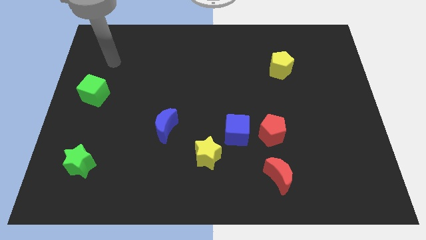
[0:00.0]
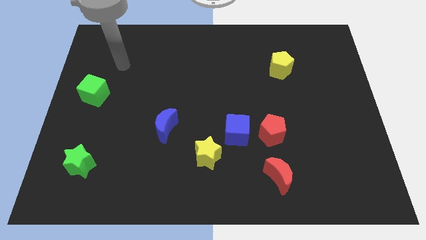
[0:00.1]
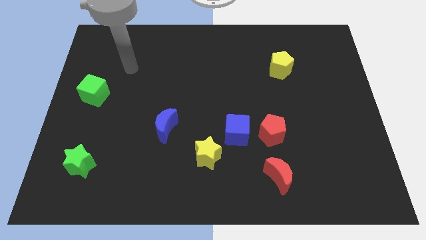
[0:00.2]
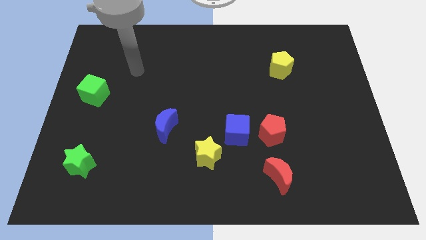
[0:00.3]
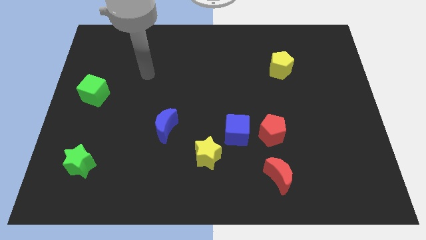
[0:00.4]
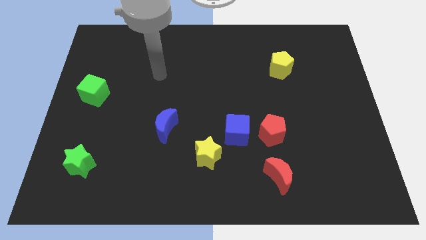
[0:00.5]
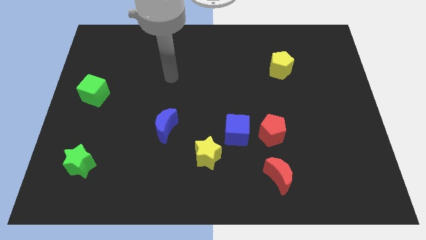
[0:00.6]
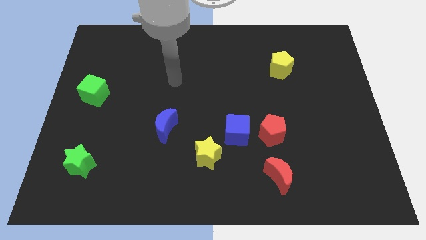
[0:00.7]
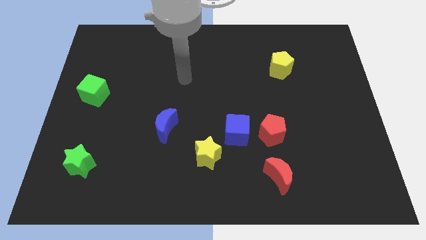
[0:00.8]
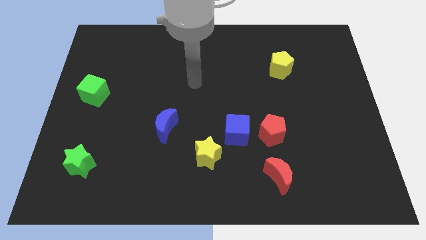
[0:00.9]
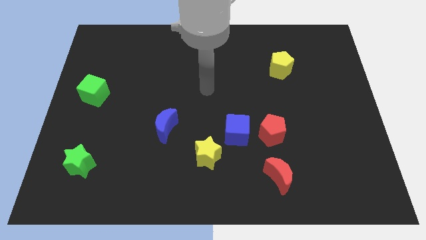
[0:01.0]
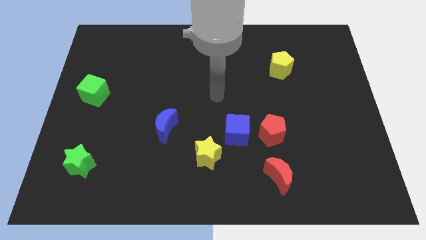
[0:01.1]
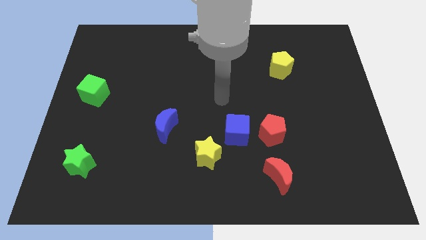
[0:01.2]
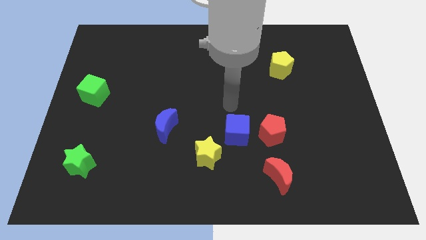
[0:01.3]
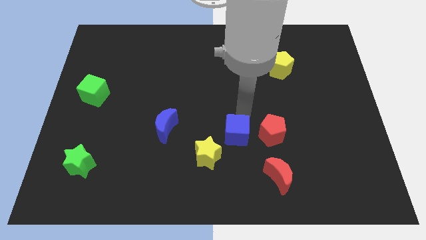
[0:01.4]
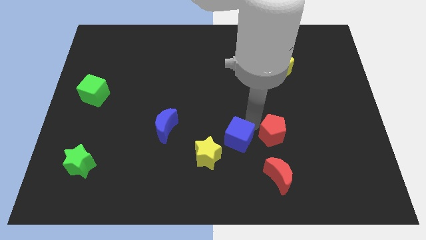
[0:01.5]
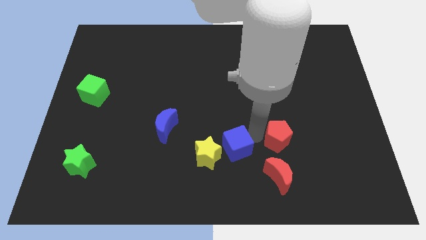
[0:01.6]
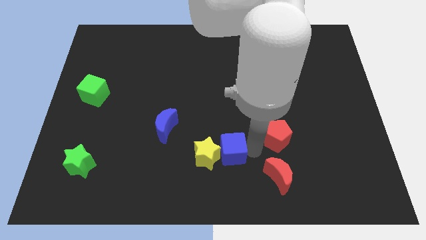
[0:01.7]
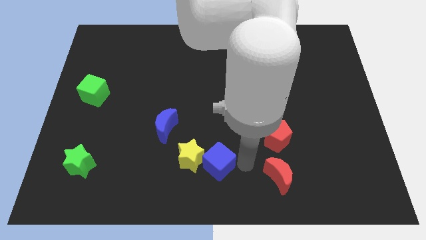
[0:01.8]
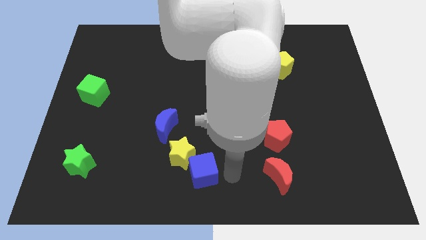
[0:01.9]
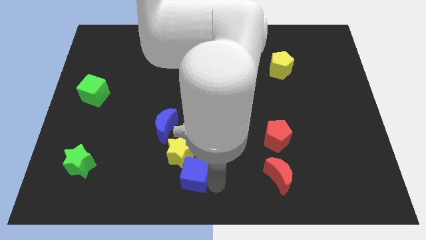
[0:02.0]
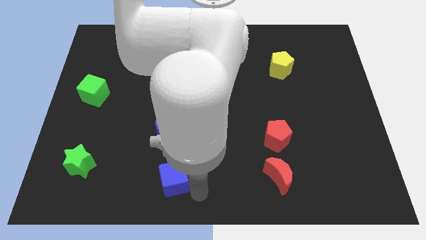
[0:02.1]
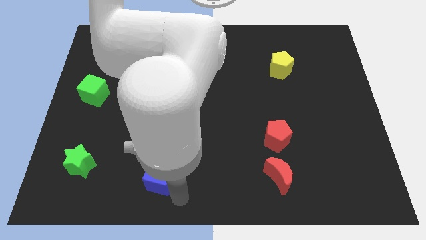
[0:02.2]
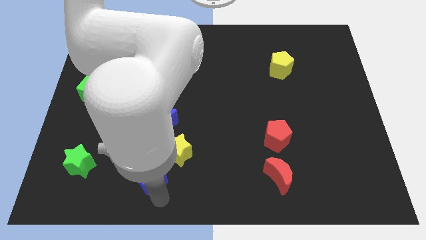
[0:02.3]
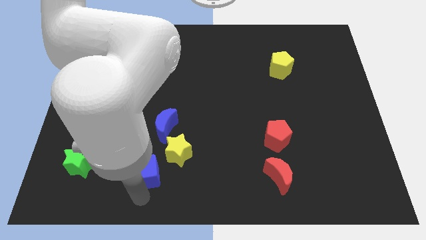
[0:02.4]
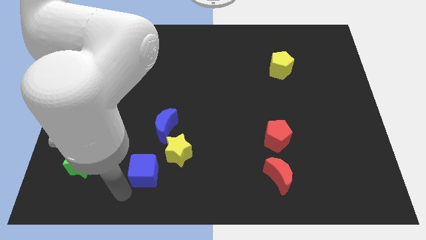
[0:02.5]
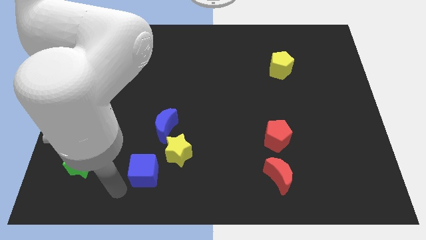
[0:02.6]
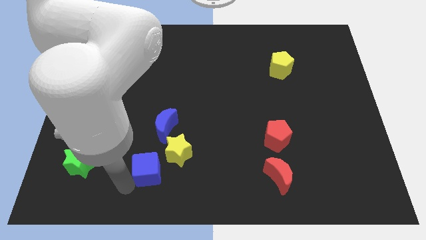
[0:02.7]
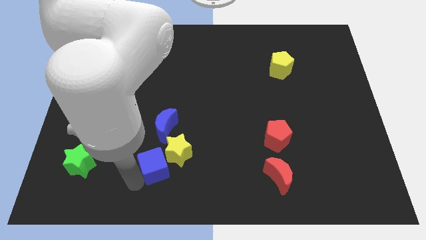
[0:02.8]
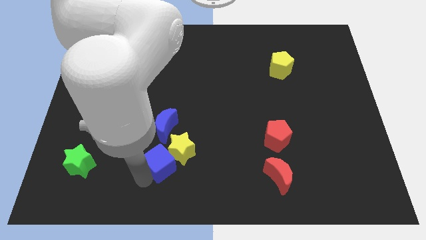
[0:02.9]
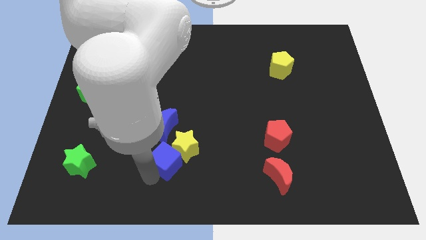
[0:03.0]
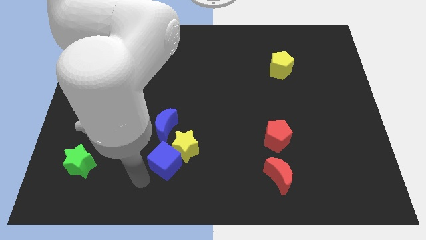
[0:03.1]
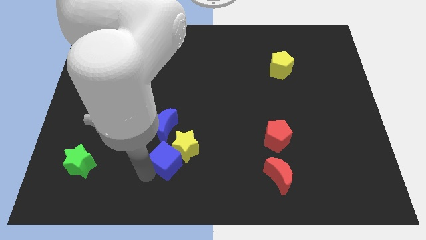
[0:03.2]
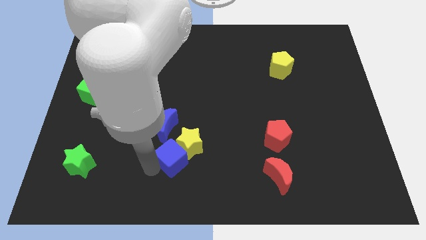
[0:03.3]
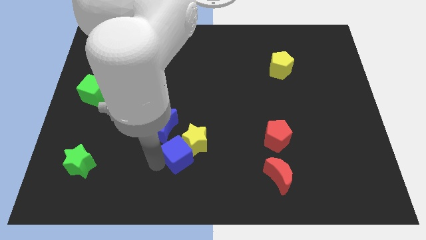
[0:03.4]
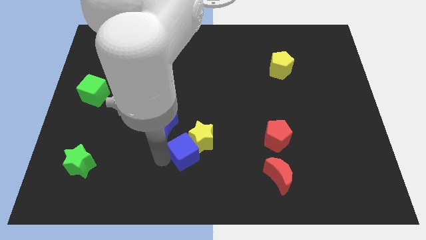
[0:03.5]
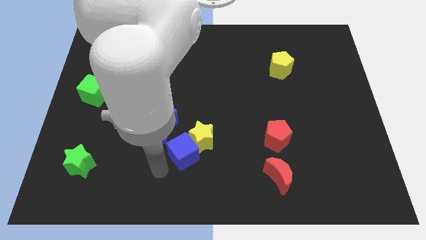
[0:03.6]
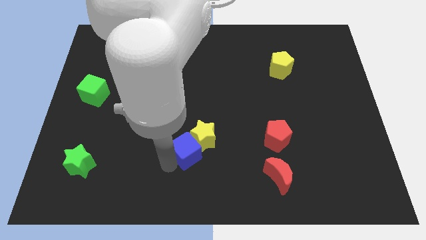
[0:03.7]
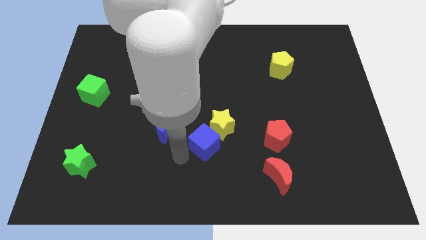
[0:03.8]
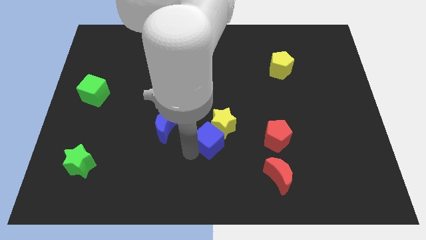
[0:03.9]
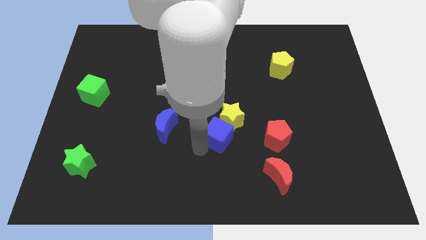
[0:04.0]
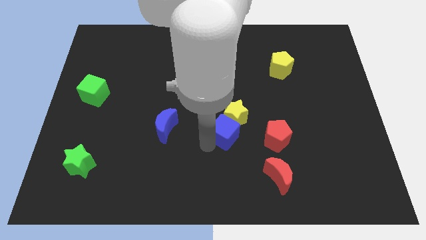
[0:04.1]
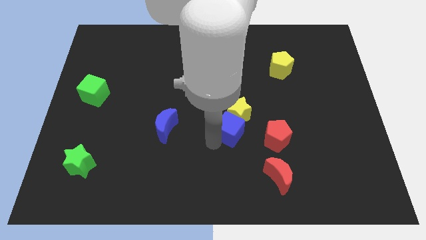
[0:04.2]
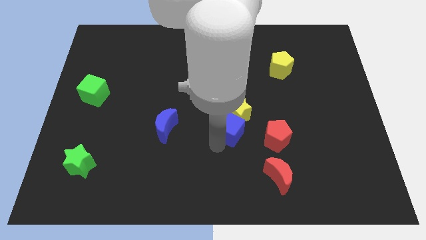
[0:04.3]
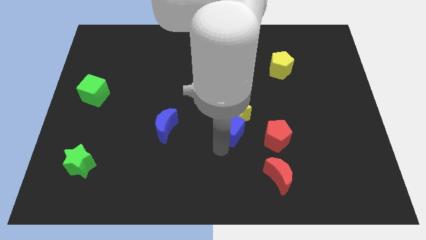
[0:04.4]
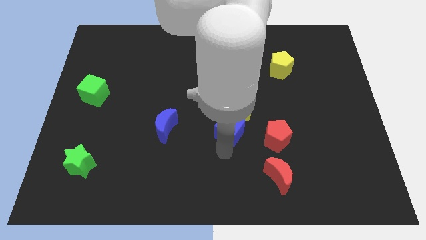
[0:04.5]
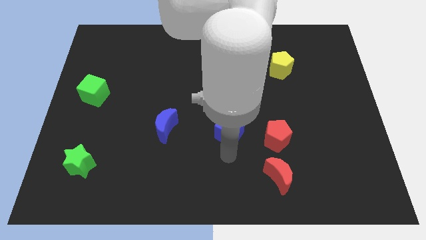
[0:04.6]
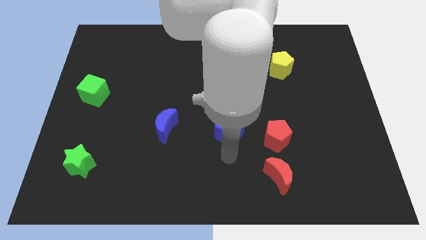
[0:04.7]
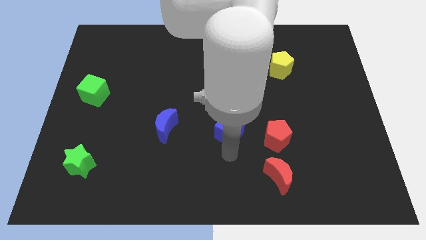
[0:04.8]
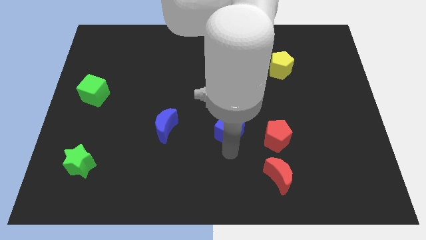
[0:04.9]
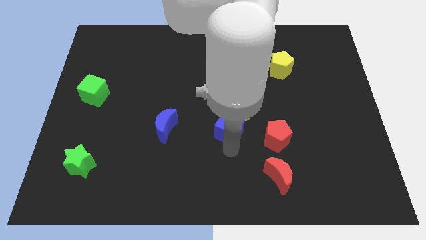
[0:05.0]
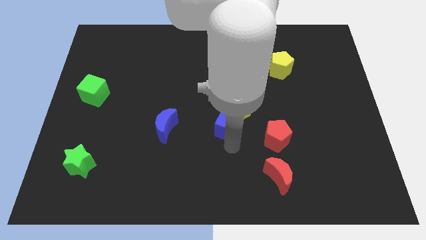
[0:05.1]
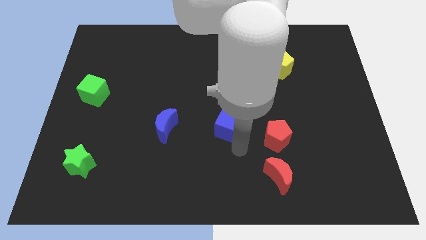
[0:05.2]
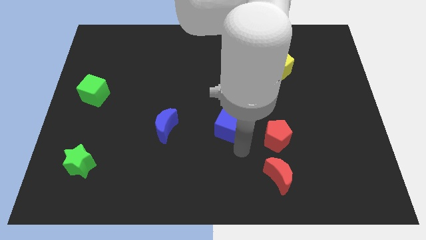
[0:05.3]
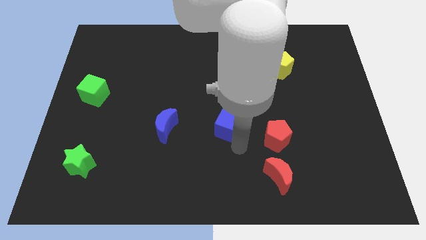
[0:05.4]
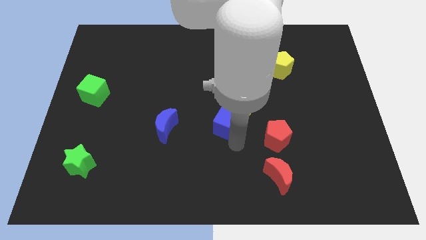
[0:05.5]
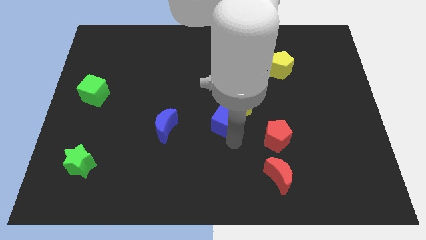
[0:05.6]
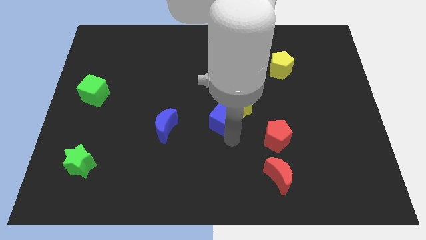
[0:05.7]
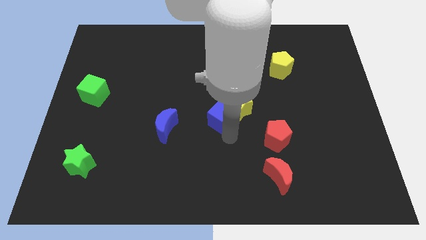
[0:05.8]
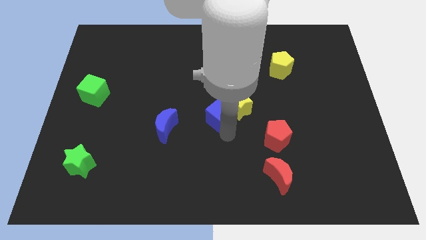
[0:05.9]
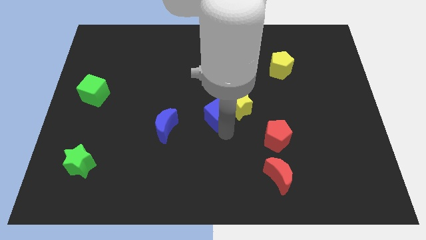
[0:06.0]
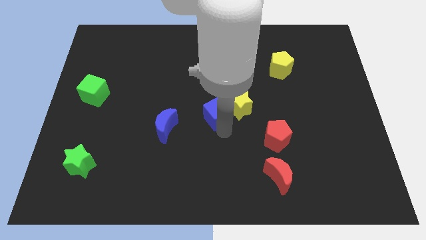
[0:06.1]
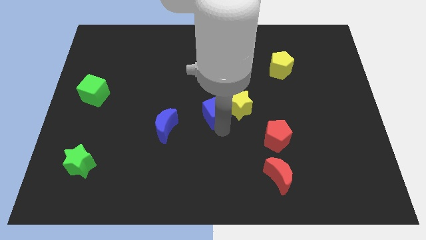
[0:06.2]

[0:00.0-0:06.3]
slightly slide the blue cube up and left

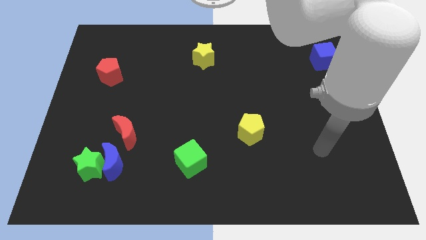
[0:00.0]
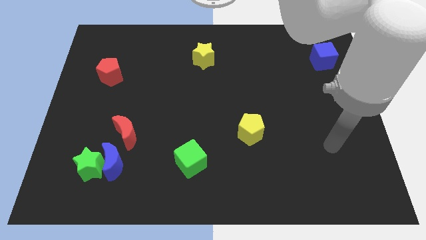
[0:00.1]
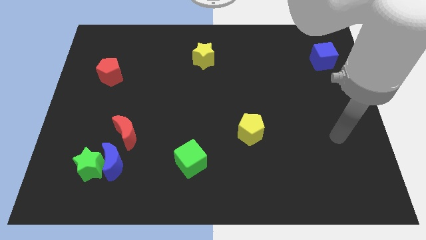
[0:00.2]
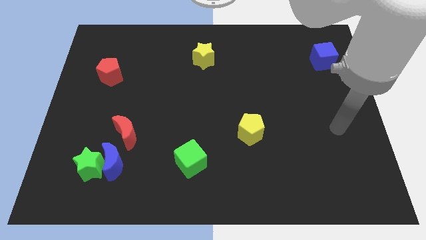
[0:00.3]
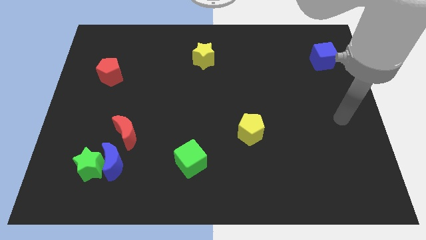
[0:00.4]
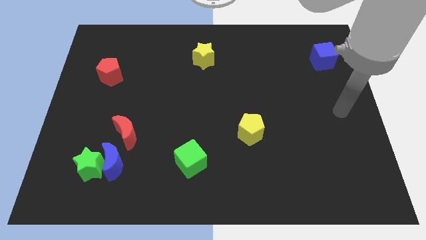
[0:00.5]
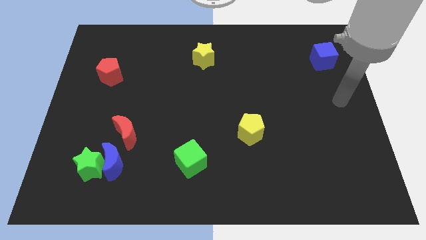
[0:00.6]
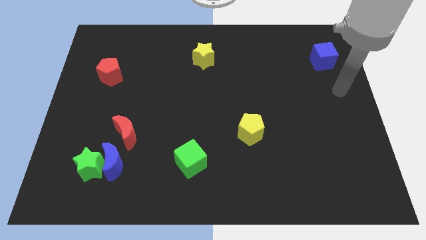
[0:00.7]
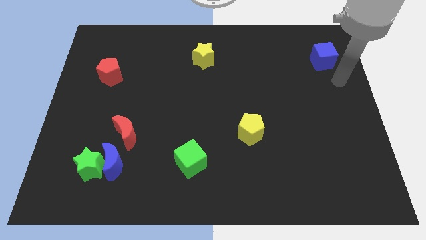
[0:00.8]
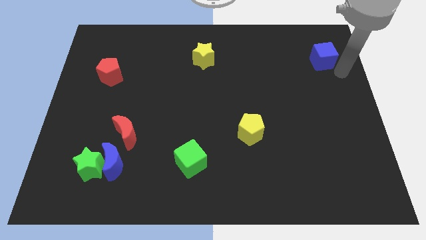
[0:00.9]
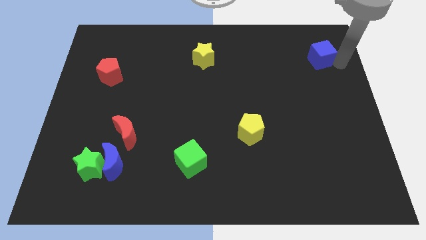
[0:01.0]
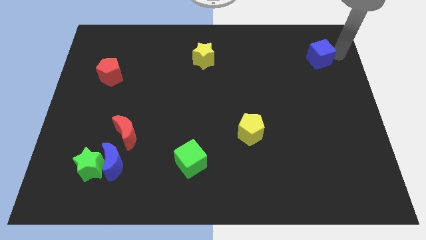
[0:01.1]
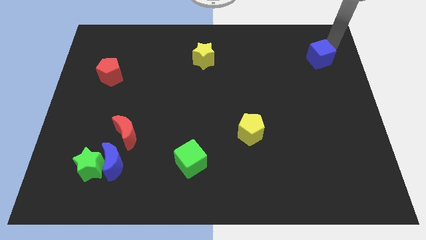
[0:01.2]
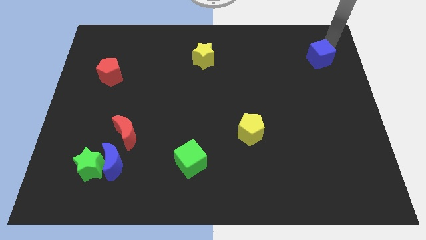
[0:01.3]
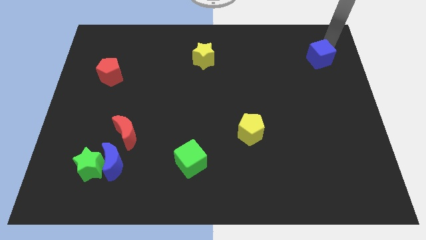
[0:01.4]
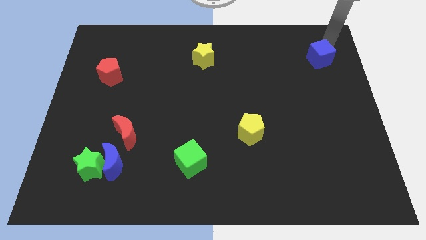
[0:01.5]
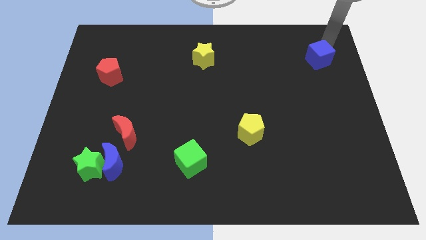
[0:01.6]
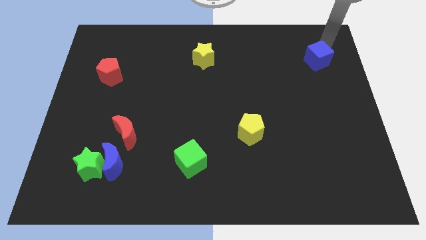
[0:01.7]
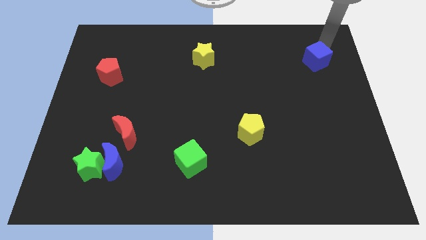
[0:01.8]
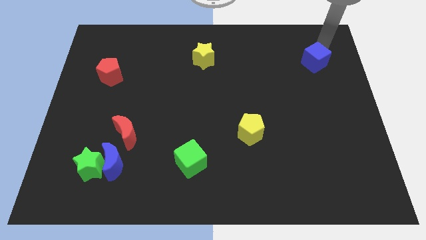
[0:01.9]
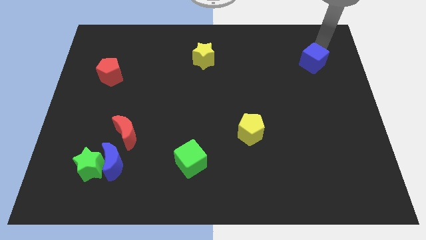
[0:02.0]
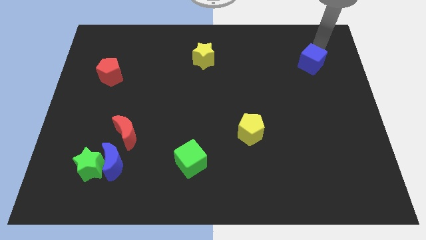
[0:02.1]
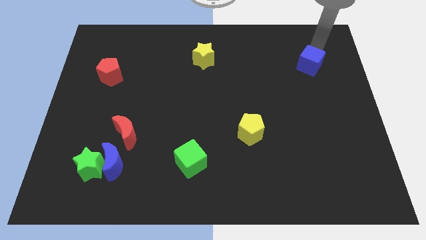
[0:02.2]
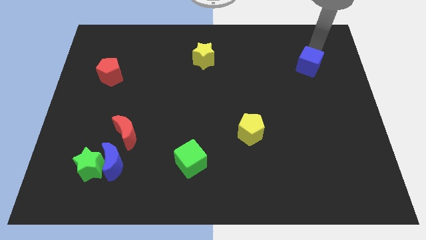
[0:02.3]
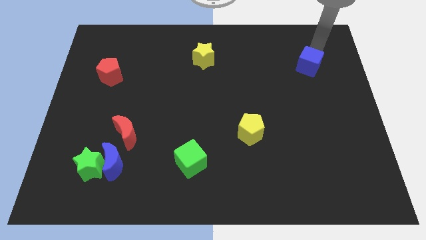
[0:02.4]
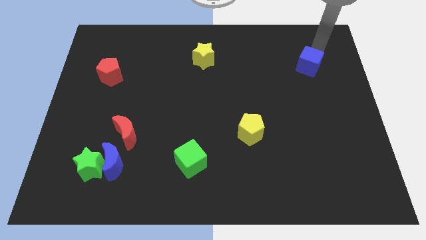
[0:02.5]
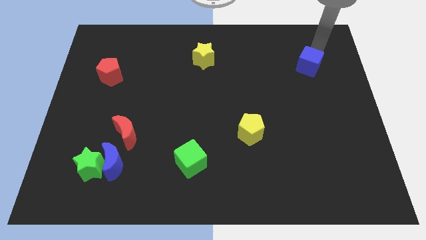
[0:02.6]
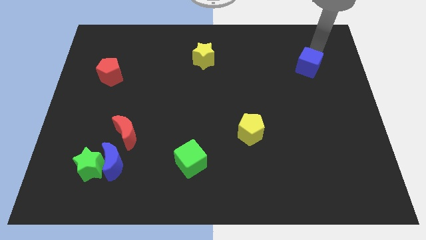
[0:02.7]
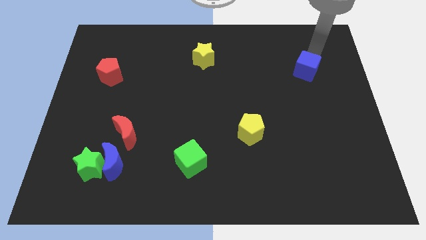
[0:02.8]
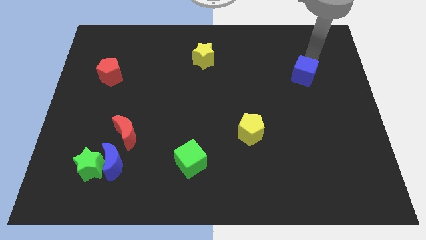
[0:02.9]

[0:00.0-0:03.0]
slide the blue cube down and to the left diagonally slightly
